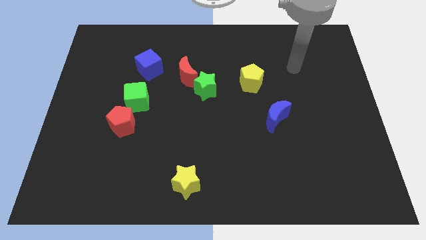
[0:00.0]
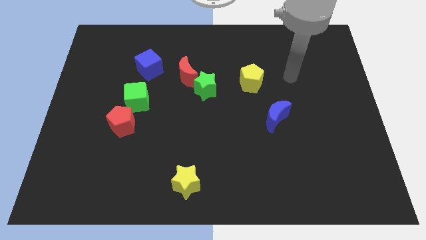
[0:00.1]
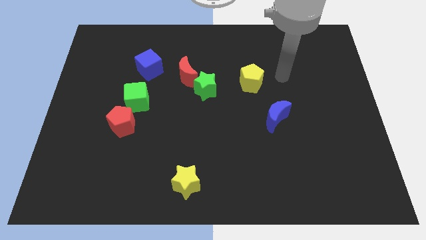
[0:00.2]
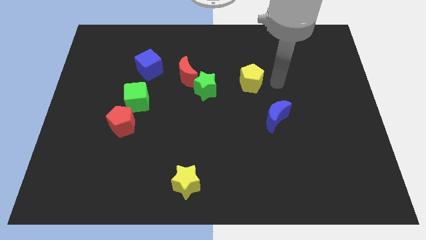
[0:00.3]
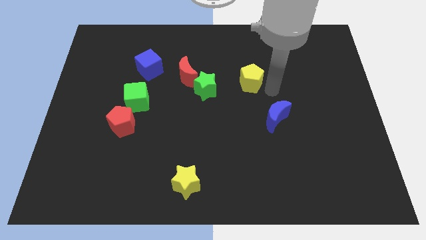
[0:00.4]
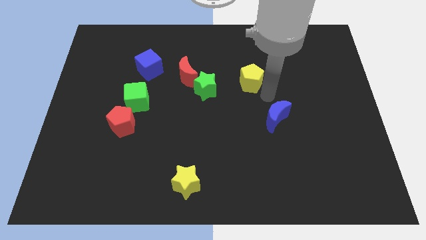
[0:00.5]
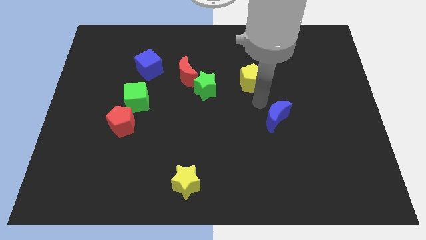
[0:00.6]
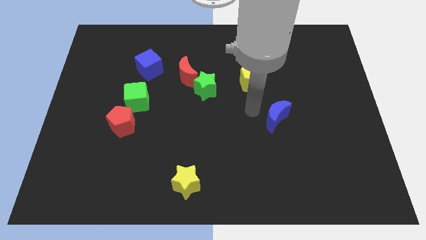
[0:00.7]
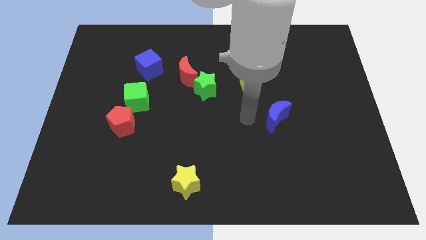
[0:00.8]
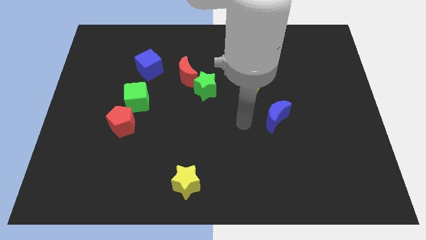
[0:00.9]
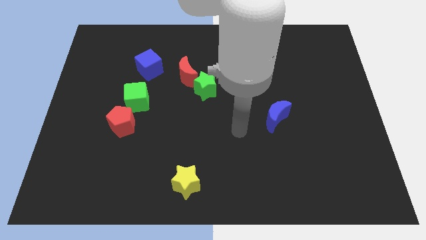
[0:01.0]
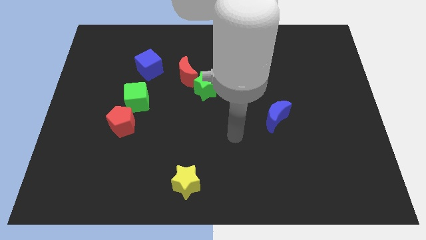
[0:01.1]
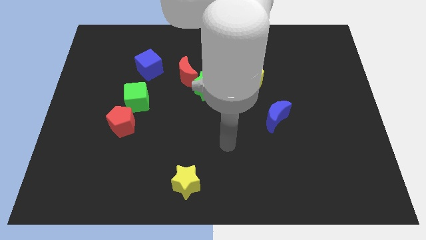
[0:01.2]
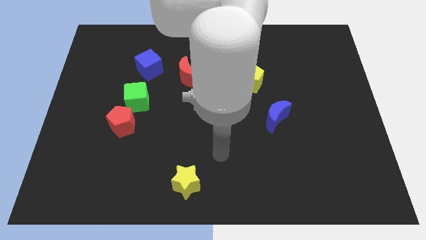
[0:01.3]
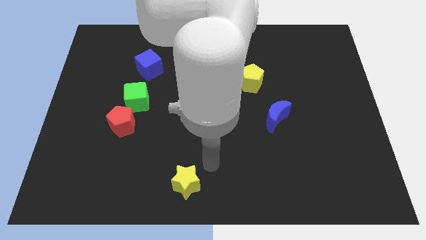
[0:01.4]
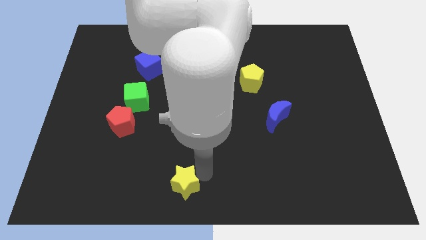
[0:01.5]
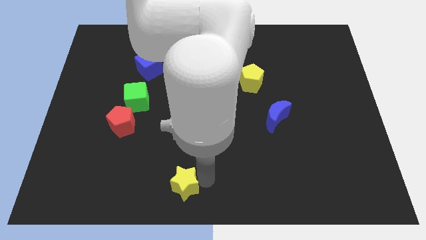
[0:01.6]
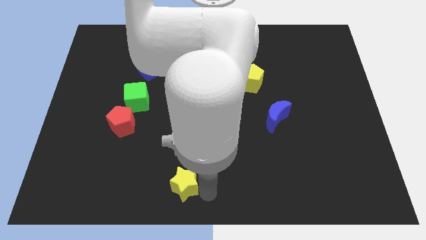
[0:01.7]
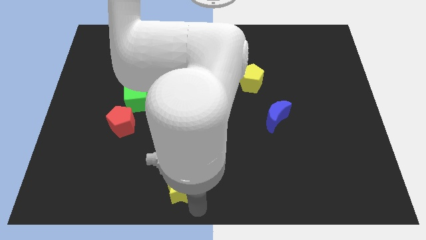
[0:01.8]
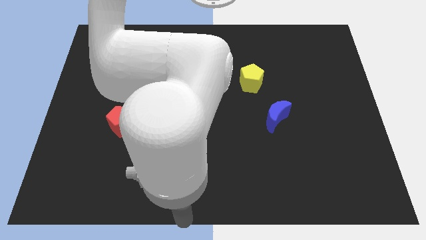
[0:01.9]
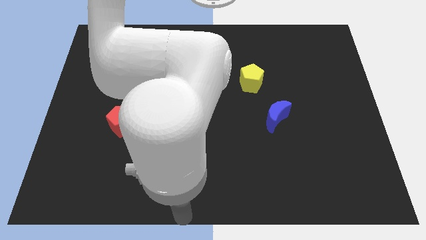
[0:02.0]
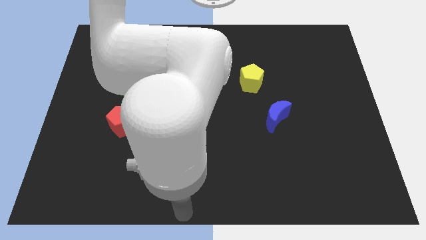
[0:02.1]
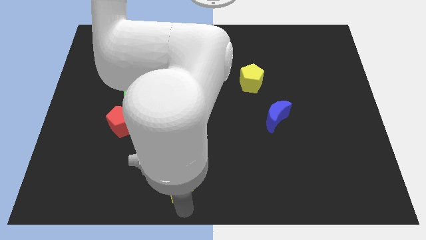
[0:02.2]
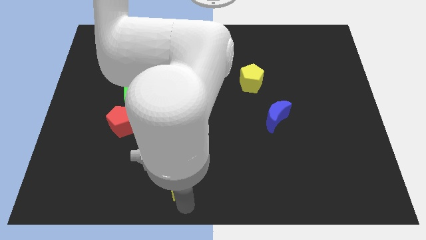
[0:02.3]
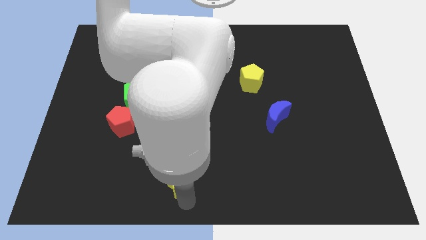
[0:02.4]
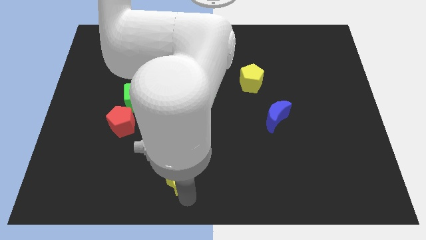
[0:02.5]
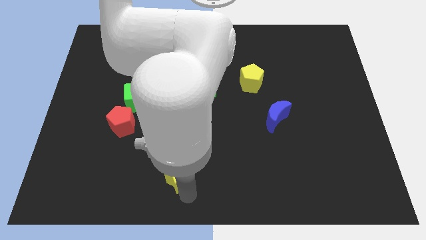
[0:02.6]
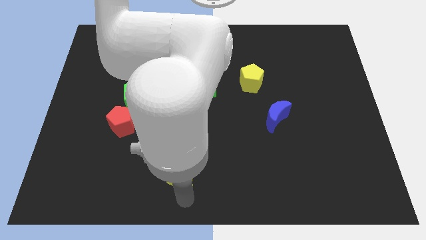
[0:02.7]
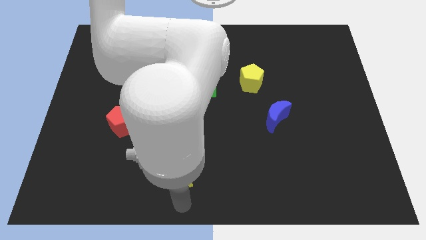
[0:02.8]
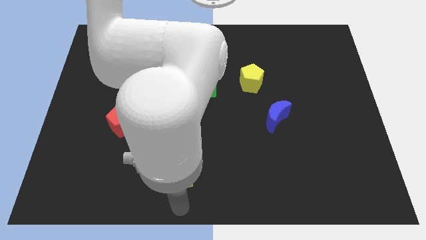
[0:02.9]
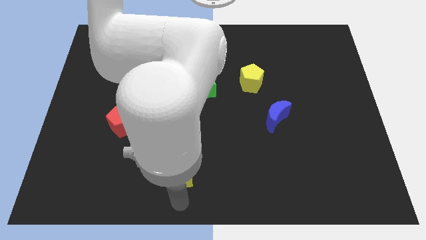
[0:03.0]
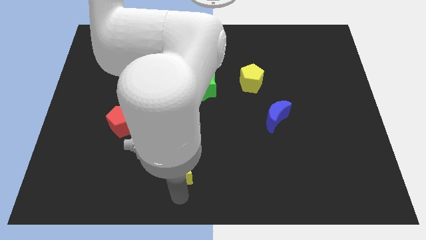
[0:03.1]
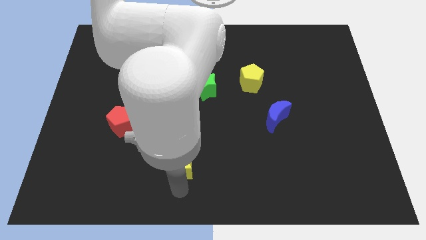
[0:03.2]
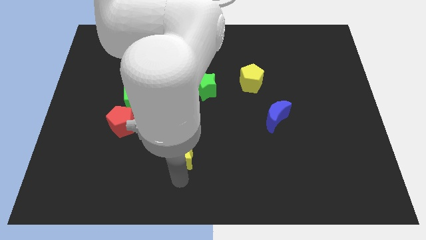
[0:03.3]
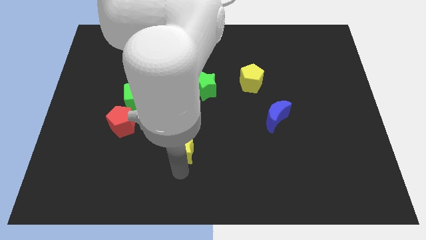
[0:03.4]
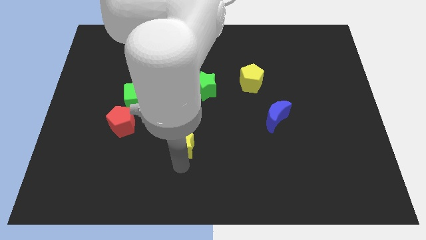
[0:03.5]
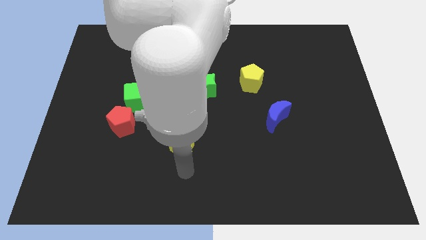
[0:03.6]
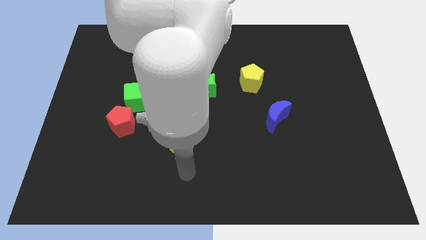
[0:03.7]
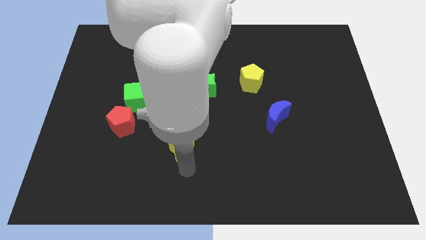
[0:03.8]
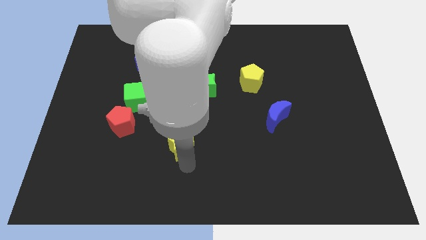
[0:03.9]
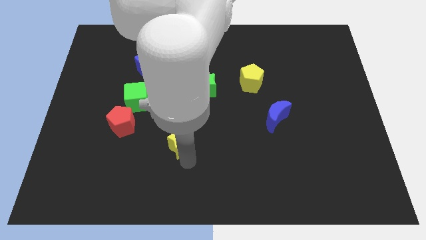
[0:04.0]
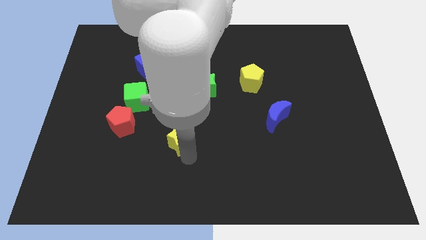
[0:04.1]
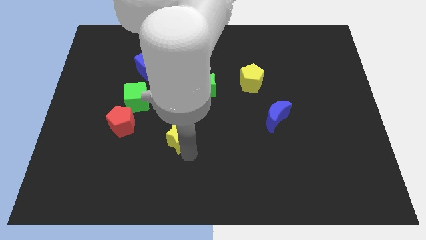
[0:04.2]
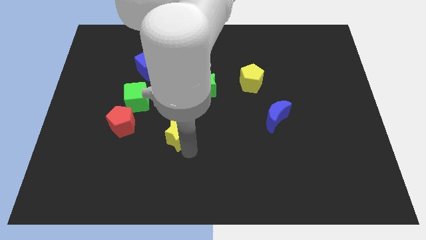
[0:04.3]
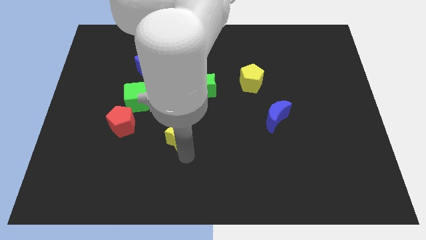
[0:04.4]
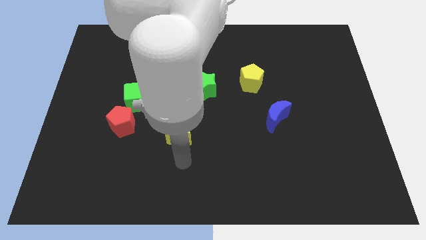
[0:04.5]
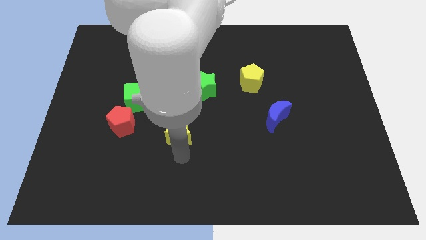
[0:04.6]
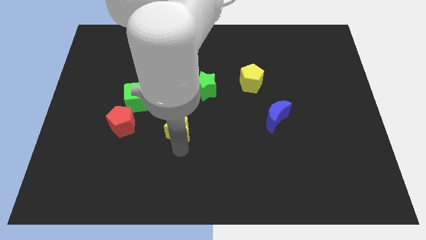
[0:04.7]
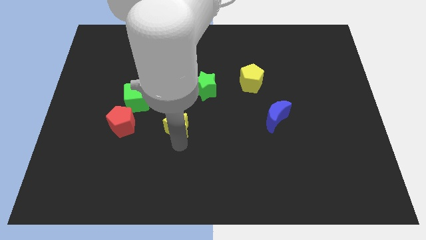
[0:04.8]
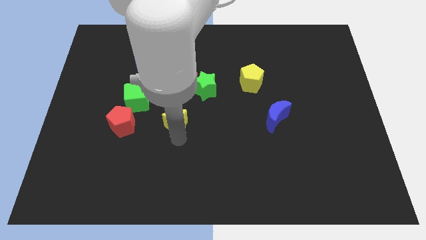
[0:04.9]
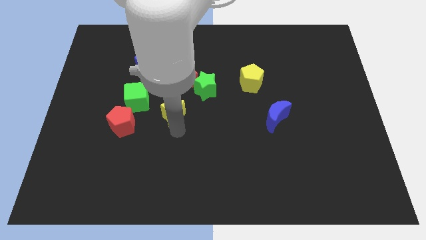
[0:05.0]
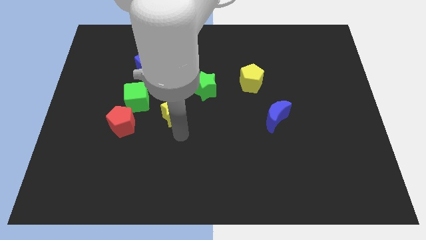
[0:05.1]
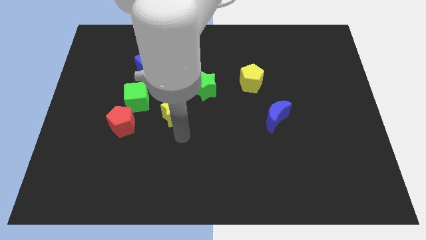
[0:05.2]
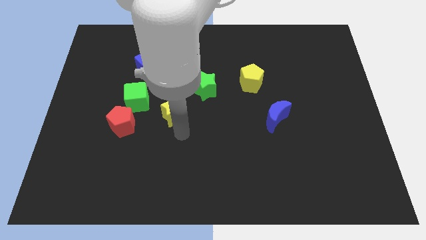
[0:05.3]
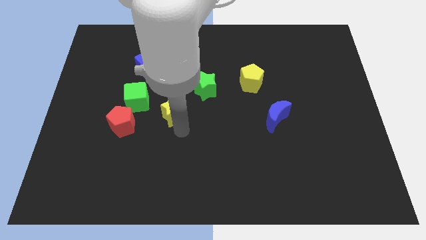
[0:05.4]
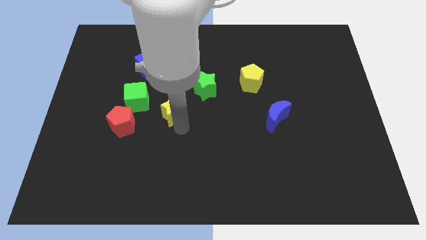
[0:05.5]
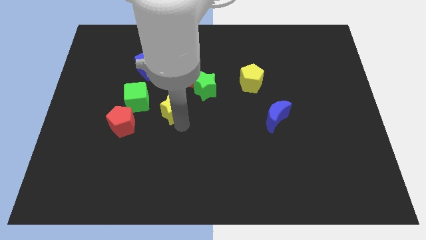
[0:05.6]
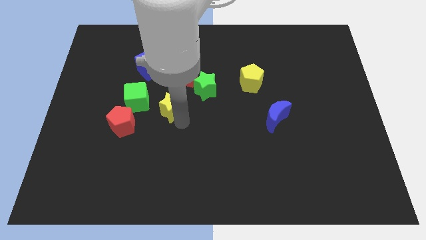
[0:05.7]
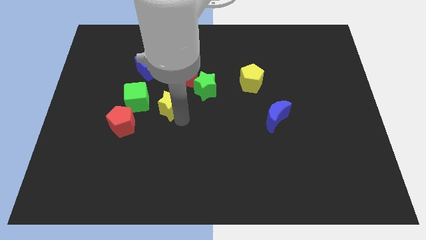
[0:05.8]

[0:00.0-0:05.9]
push the yellow star to the bottom left of the red moon
